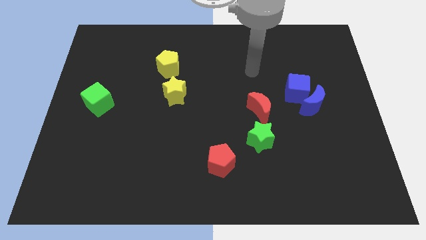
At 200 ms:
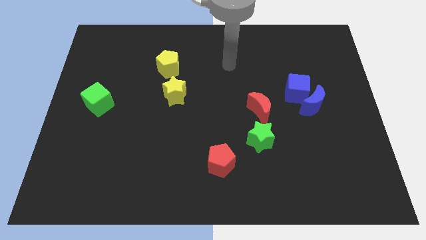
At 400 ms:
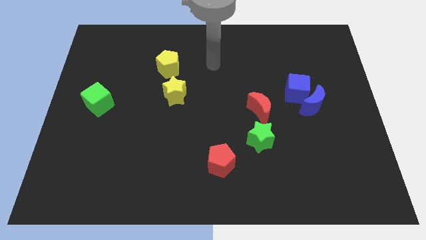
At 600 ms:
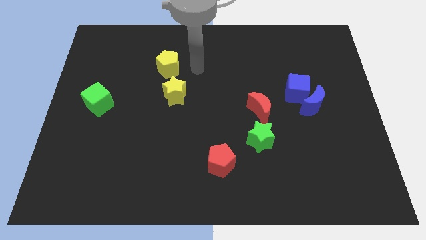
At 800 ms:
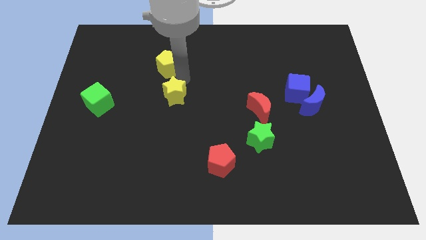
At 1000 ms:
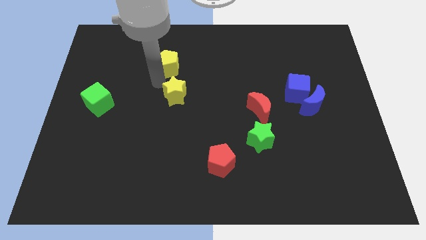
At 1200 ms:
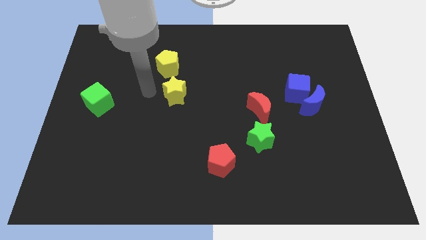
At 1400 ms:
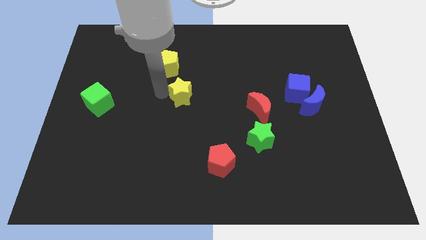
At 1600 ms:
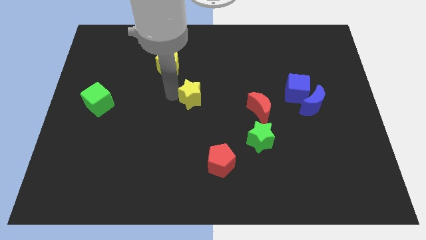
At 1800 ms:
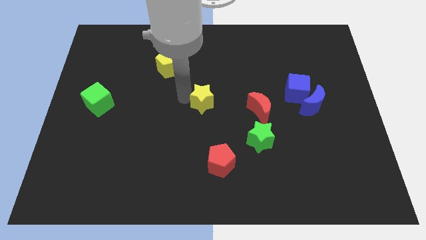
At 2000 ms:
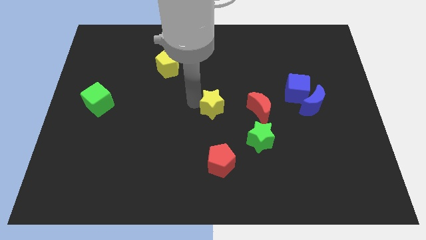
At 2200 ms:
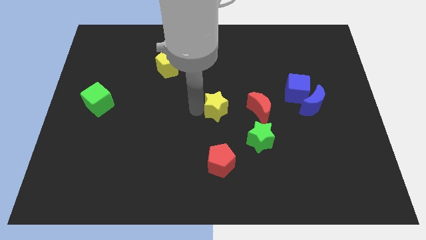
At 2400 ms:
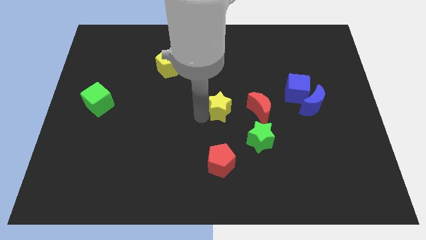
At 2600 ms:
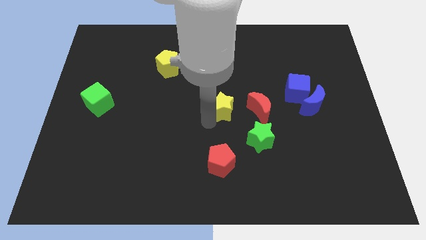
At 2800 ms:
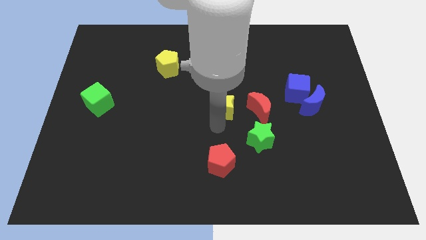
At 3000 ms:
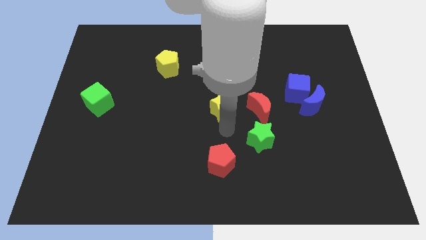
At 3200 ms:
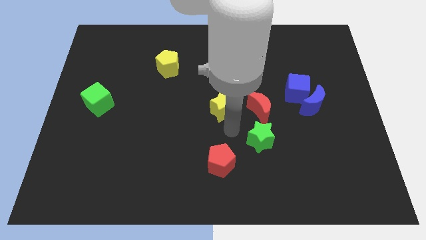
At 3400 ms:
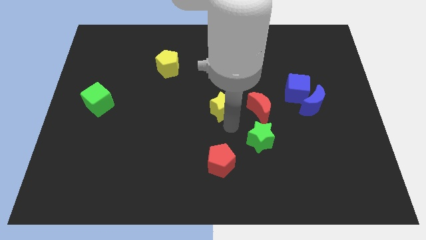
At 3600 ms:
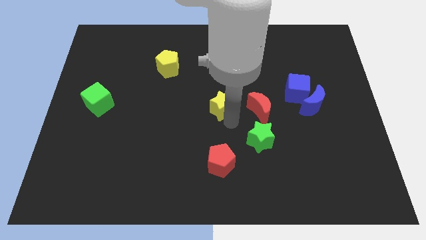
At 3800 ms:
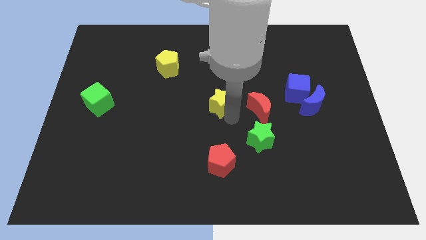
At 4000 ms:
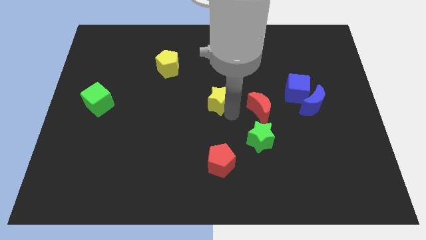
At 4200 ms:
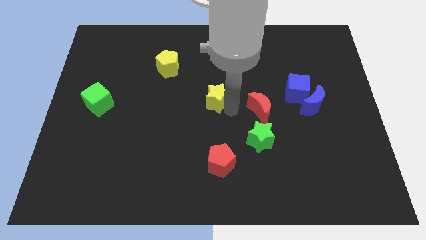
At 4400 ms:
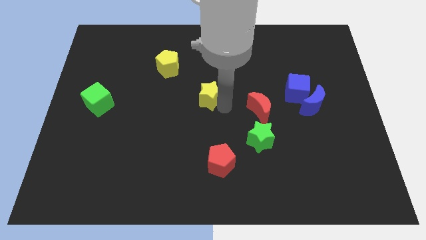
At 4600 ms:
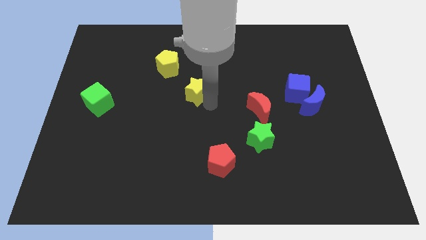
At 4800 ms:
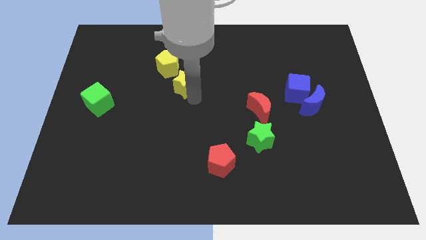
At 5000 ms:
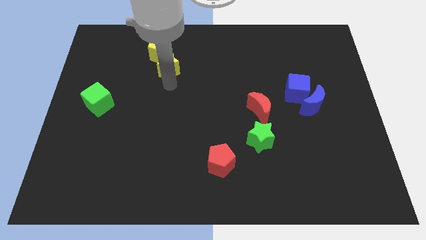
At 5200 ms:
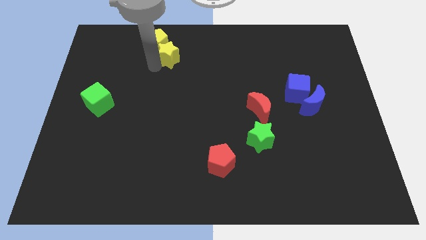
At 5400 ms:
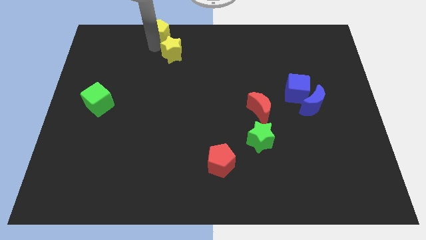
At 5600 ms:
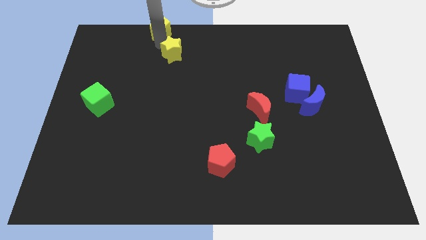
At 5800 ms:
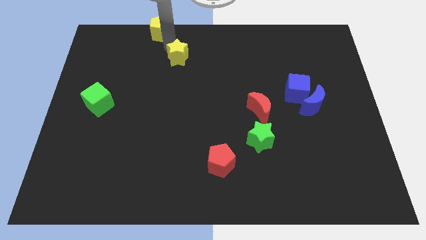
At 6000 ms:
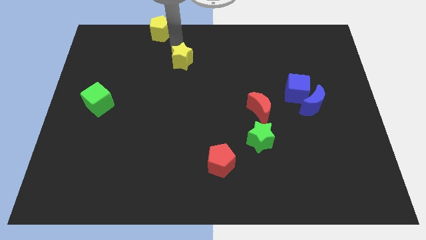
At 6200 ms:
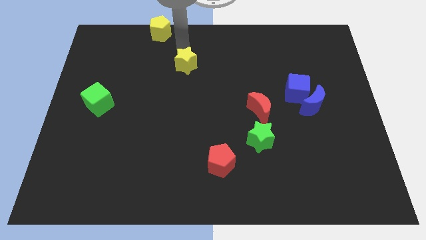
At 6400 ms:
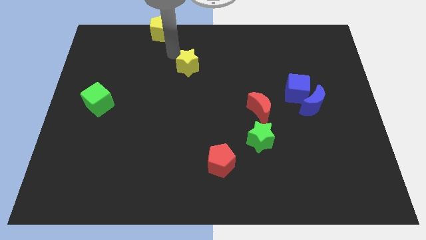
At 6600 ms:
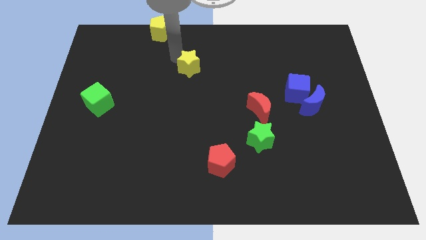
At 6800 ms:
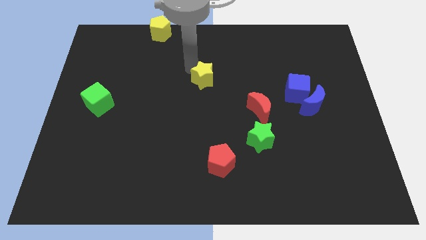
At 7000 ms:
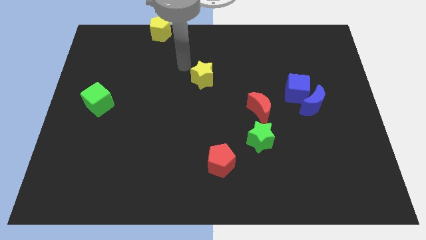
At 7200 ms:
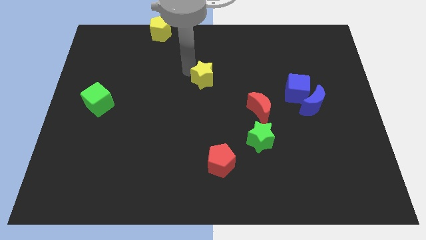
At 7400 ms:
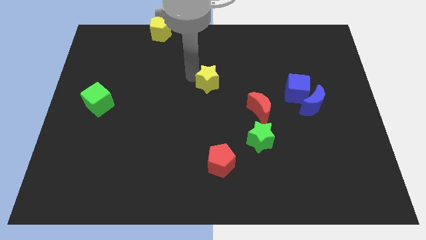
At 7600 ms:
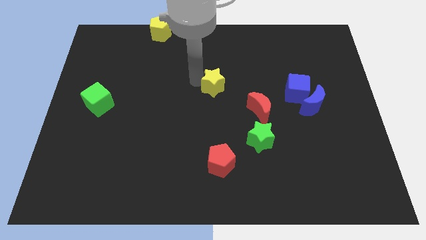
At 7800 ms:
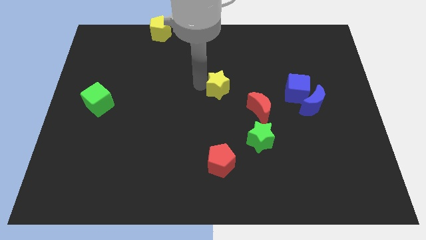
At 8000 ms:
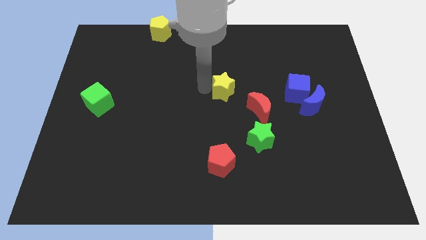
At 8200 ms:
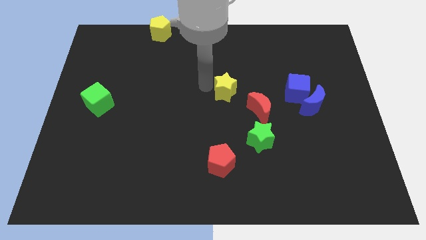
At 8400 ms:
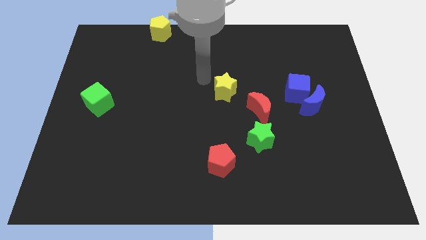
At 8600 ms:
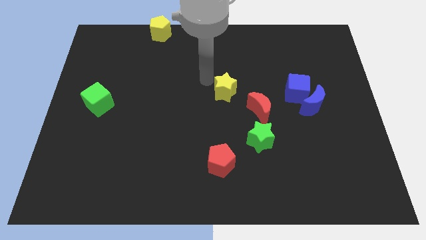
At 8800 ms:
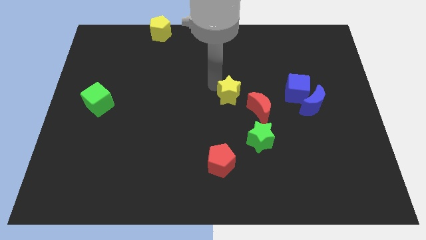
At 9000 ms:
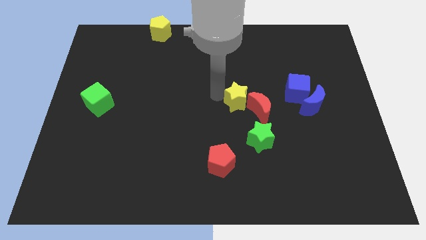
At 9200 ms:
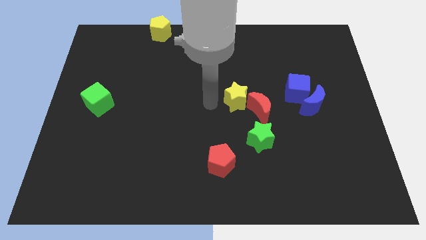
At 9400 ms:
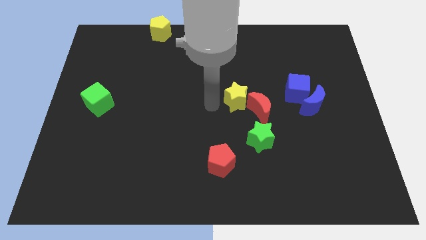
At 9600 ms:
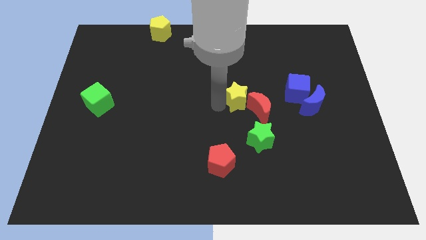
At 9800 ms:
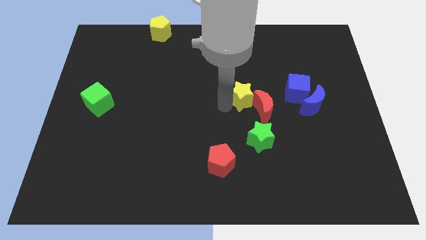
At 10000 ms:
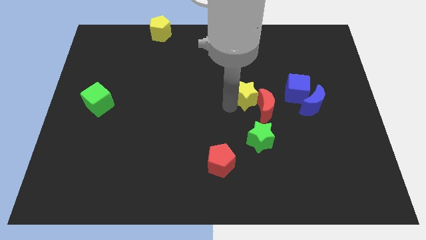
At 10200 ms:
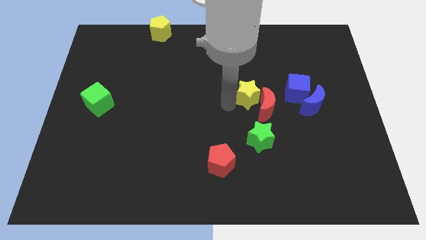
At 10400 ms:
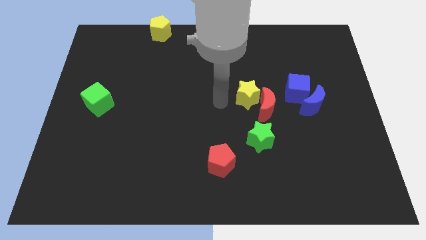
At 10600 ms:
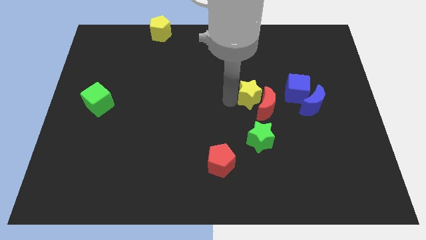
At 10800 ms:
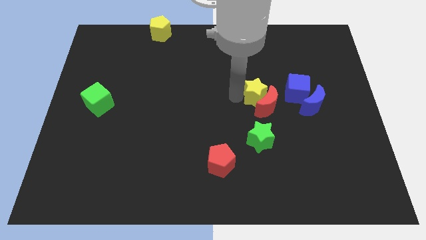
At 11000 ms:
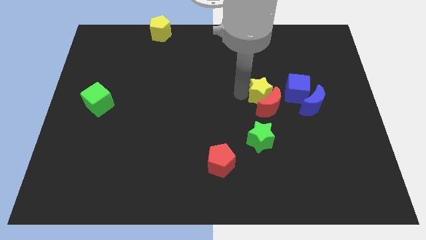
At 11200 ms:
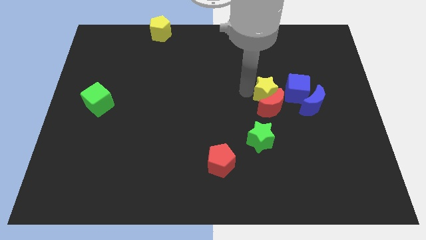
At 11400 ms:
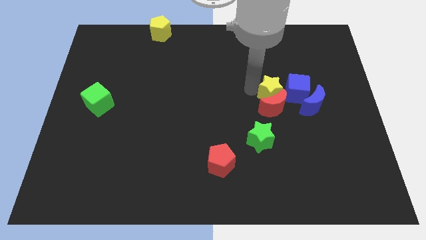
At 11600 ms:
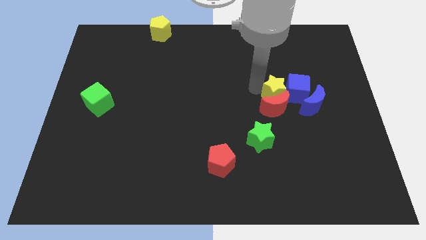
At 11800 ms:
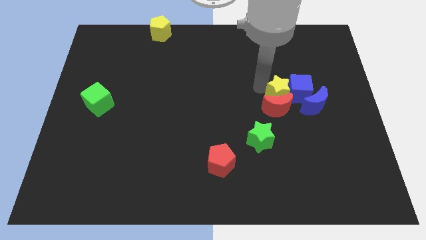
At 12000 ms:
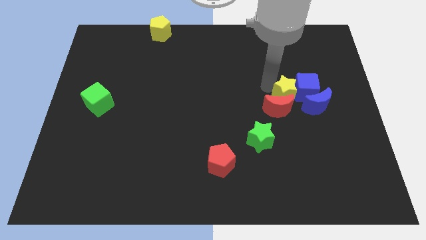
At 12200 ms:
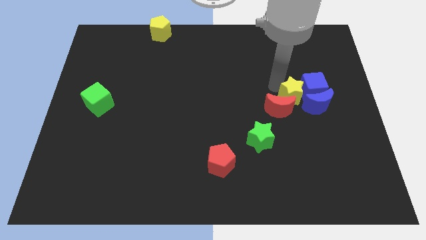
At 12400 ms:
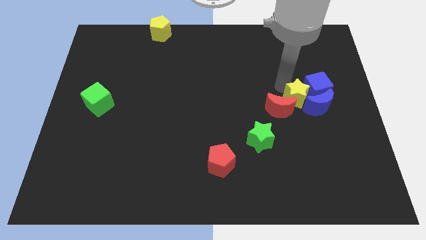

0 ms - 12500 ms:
put the yellow star next to the blue moon
